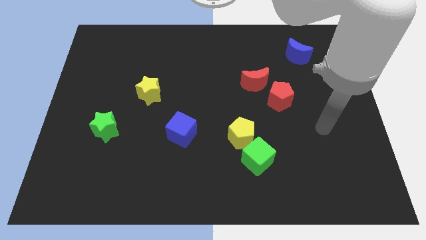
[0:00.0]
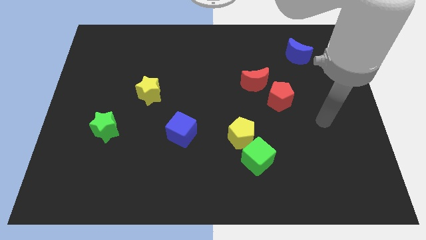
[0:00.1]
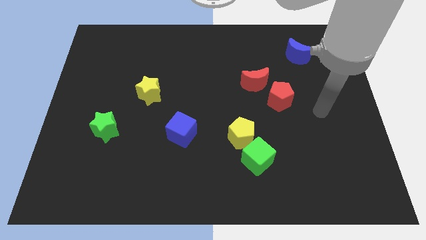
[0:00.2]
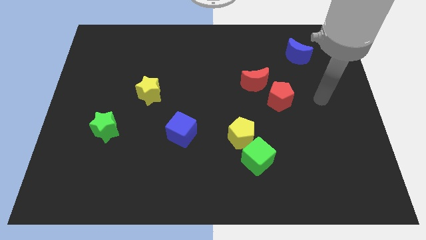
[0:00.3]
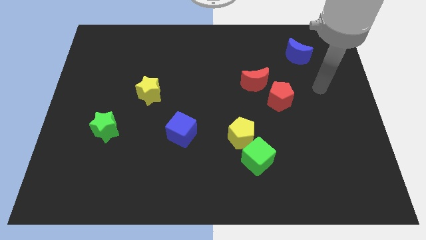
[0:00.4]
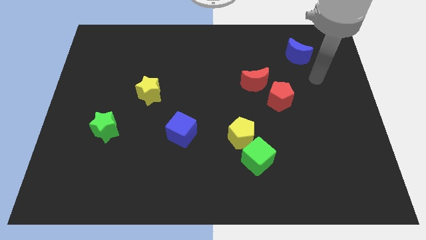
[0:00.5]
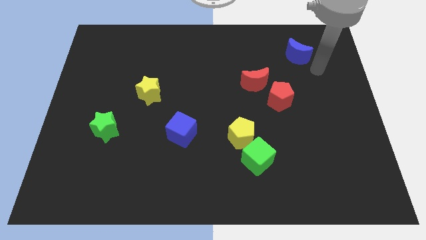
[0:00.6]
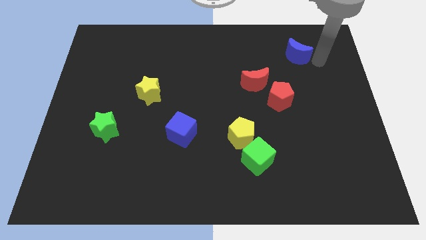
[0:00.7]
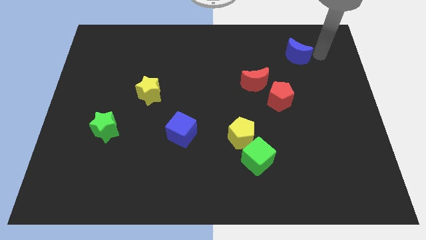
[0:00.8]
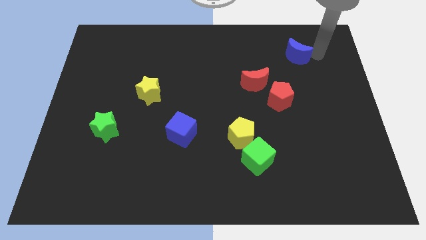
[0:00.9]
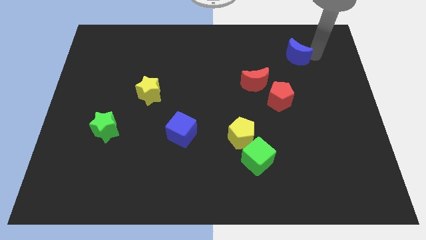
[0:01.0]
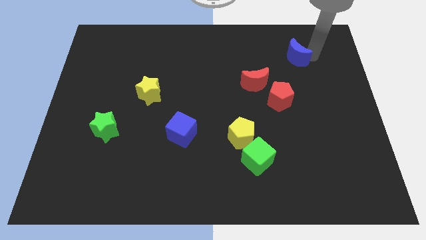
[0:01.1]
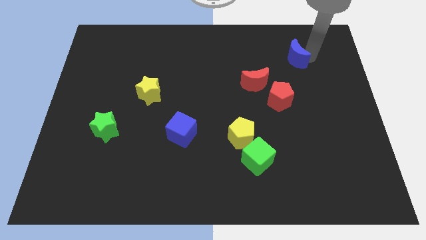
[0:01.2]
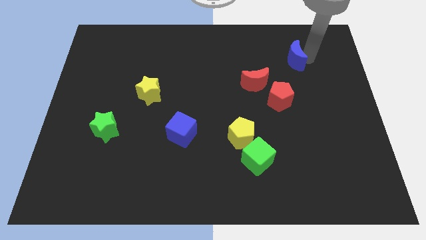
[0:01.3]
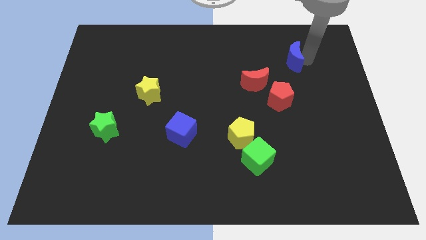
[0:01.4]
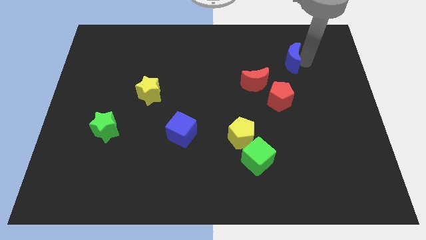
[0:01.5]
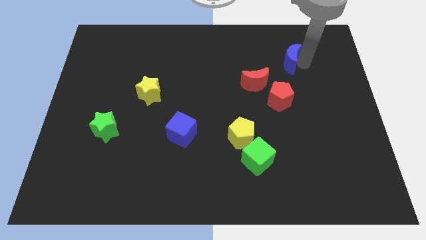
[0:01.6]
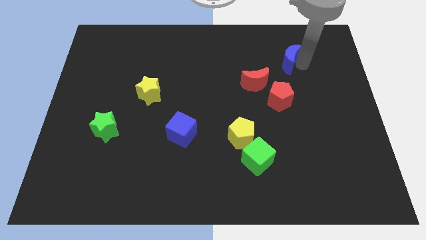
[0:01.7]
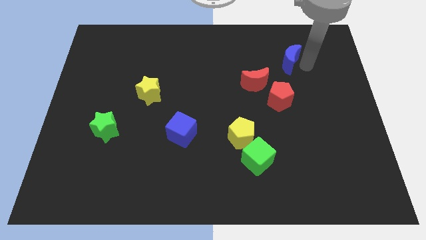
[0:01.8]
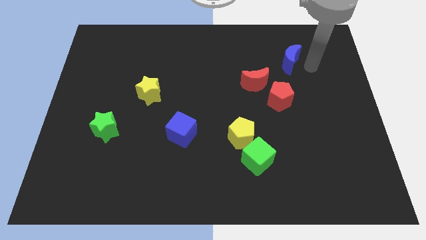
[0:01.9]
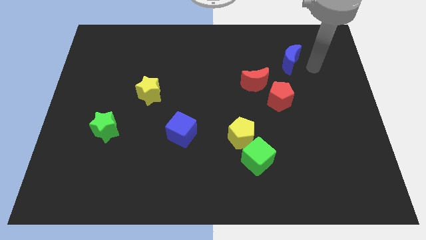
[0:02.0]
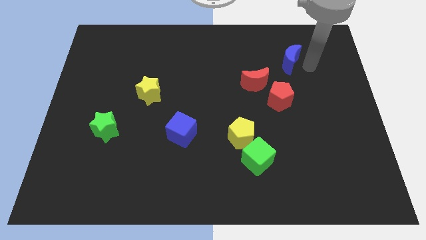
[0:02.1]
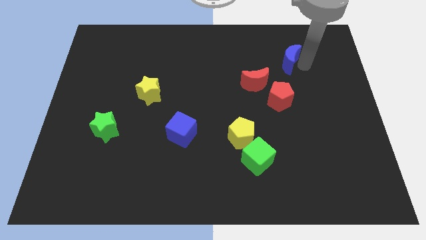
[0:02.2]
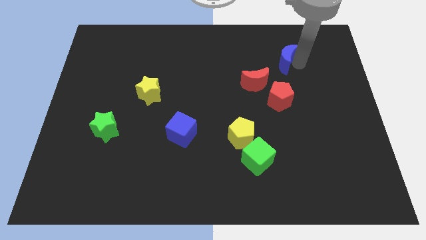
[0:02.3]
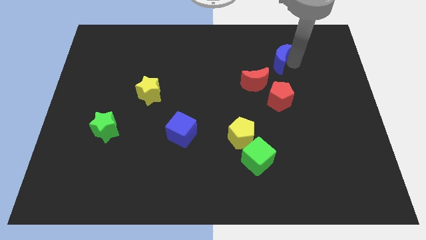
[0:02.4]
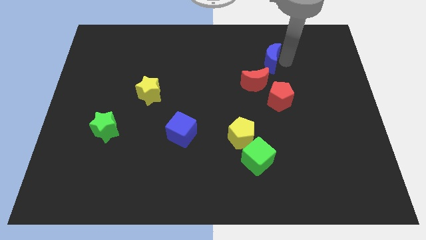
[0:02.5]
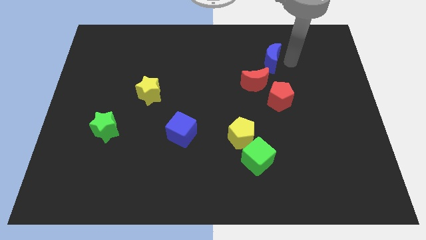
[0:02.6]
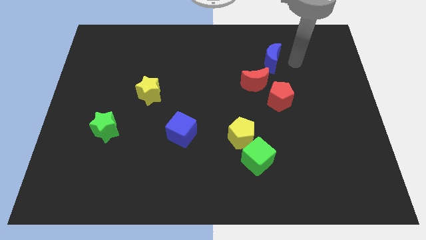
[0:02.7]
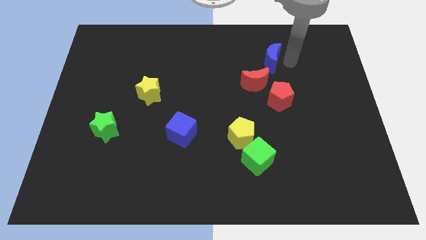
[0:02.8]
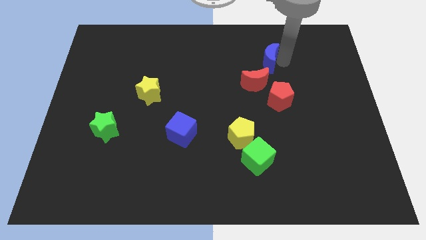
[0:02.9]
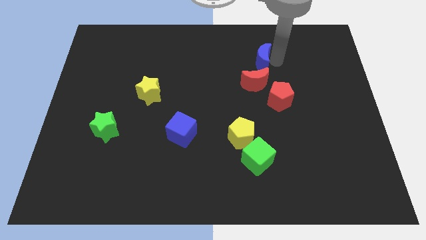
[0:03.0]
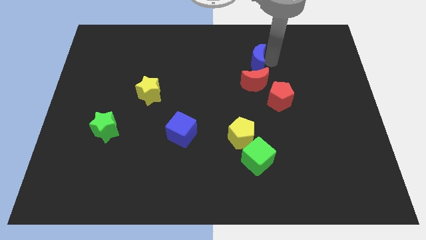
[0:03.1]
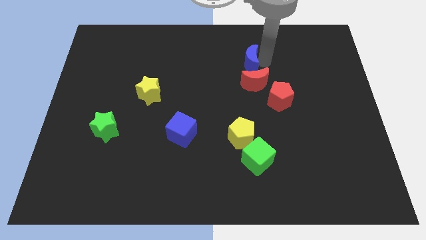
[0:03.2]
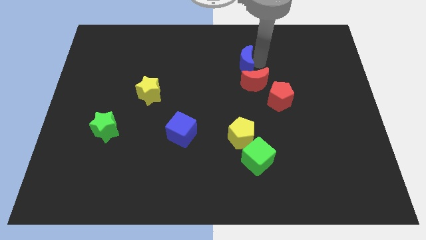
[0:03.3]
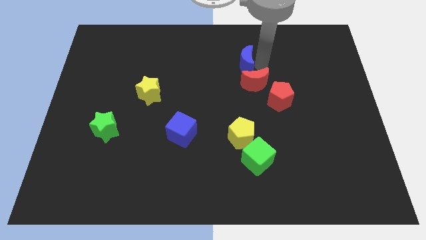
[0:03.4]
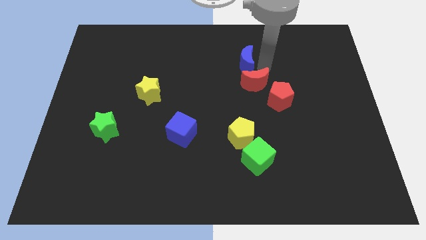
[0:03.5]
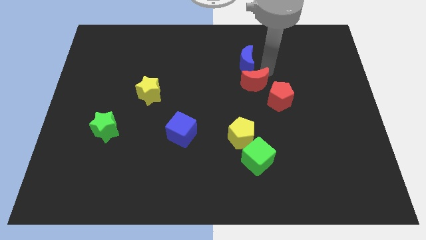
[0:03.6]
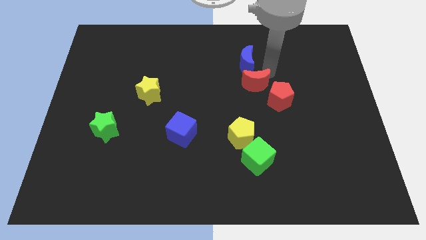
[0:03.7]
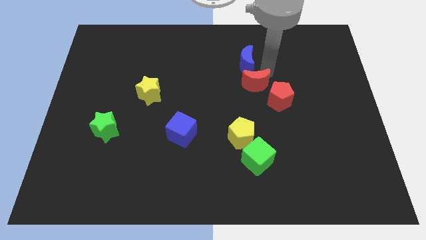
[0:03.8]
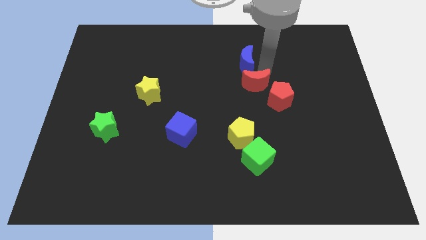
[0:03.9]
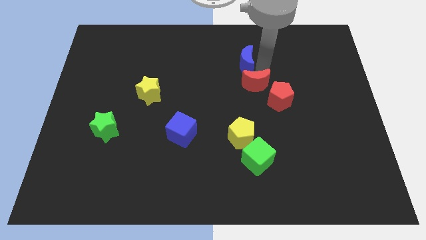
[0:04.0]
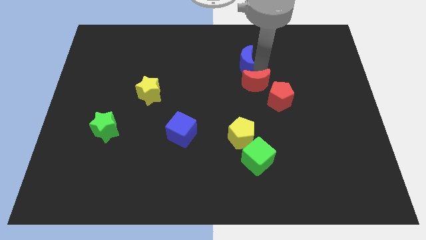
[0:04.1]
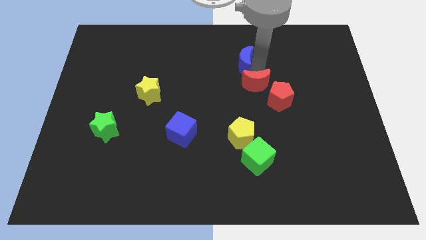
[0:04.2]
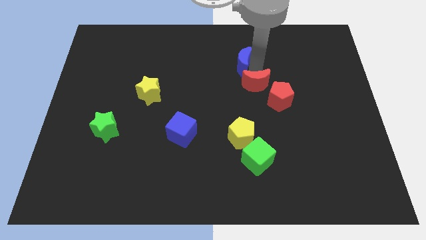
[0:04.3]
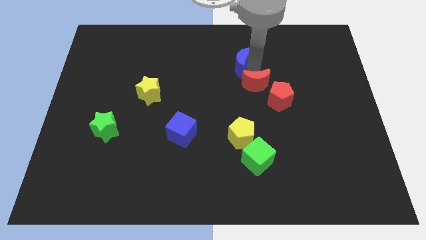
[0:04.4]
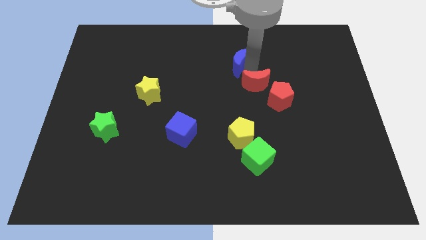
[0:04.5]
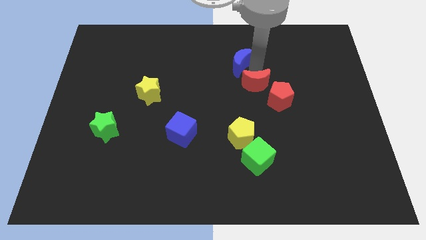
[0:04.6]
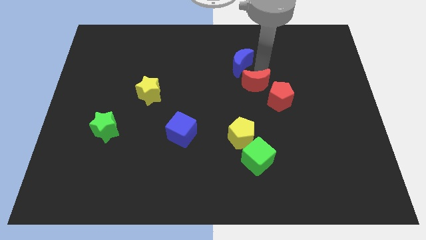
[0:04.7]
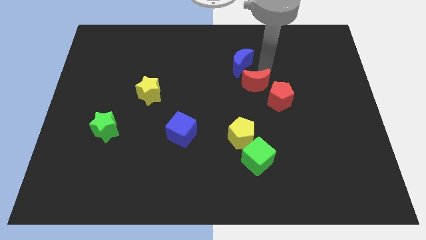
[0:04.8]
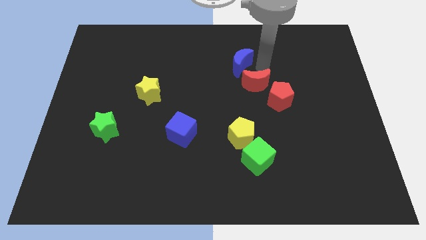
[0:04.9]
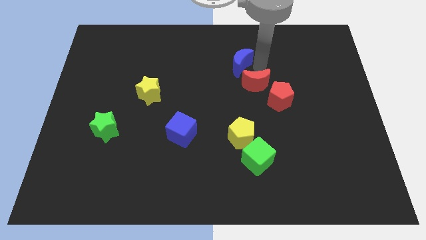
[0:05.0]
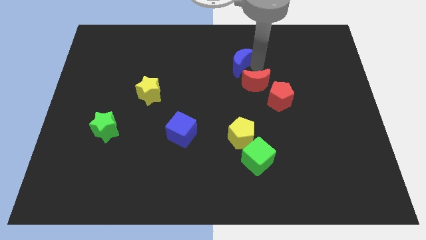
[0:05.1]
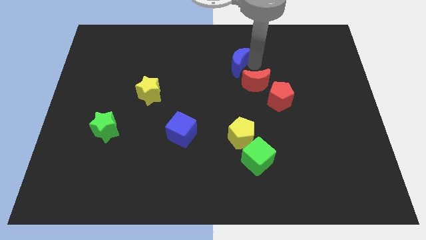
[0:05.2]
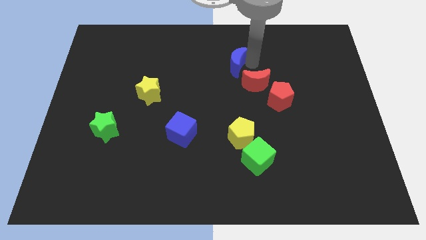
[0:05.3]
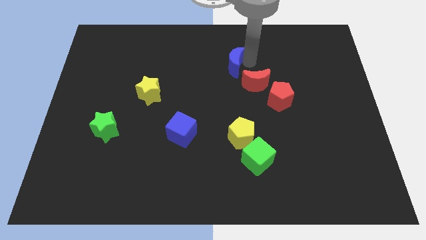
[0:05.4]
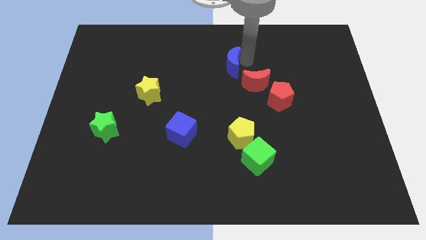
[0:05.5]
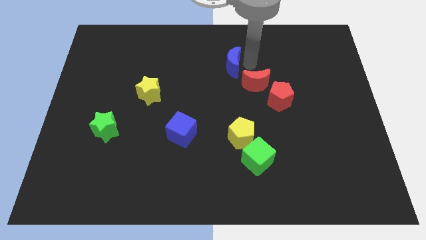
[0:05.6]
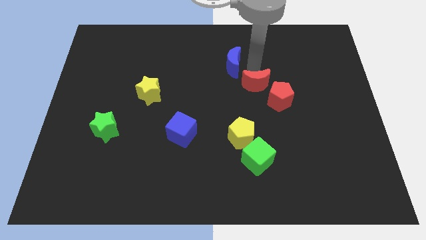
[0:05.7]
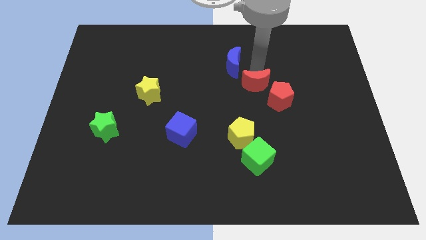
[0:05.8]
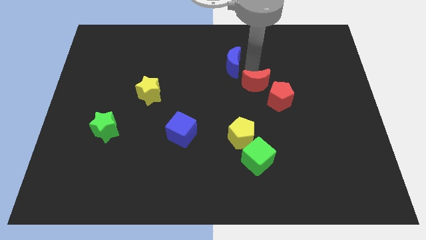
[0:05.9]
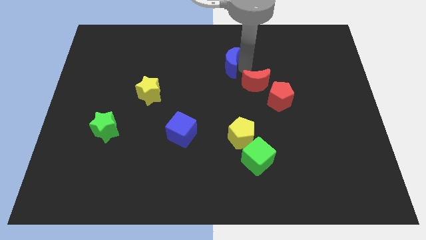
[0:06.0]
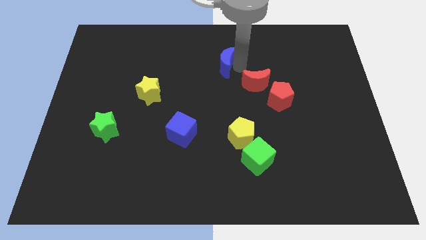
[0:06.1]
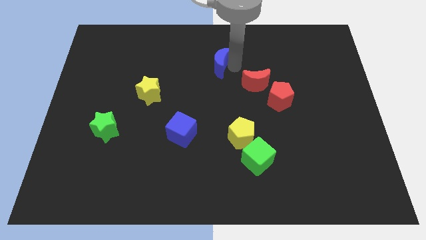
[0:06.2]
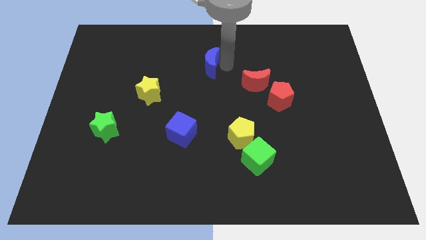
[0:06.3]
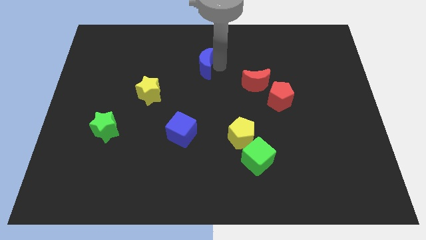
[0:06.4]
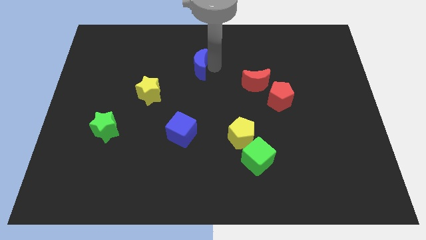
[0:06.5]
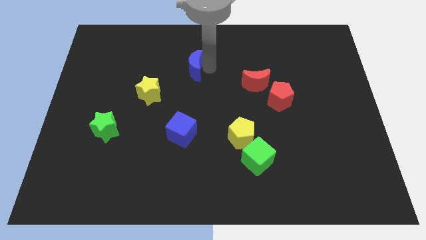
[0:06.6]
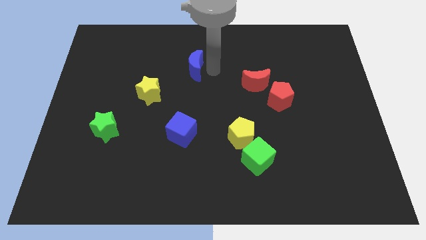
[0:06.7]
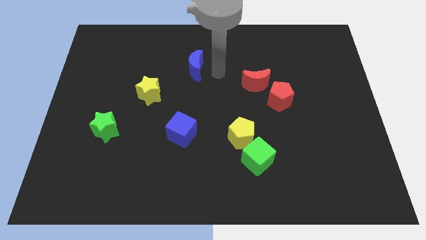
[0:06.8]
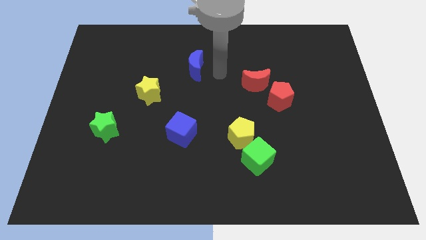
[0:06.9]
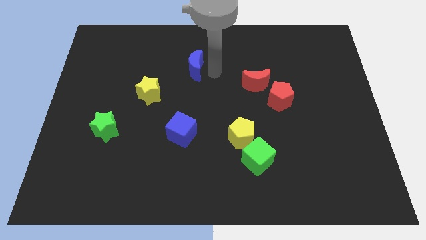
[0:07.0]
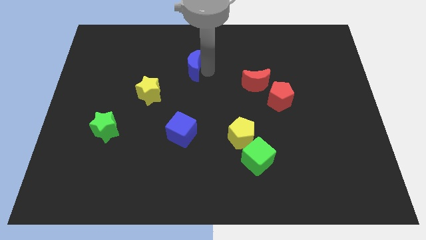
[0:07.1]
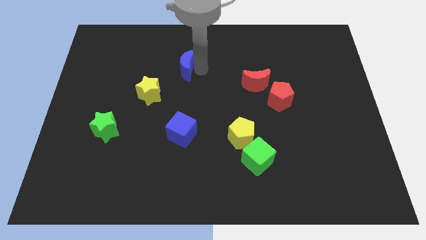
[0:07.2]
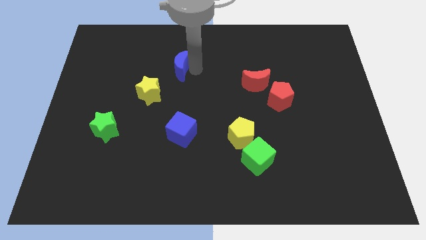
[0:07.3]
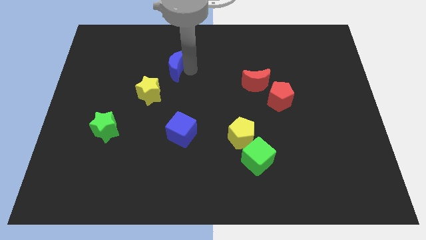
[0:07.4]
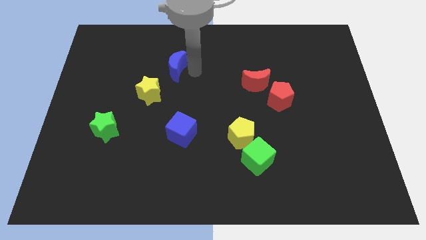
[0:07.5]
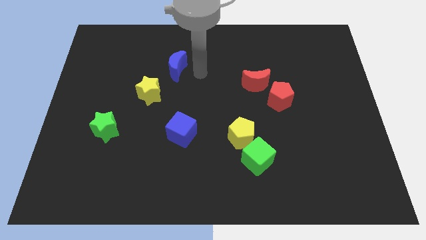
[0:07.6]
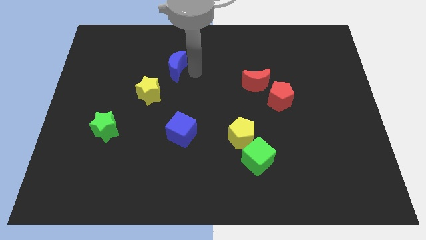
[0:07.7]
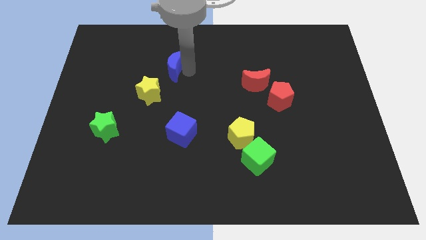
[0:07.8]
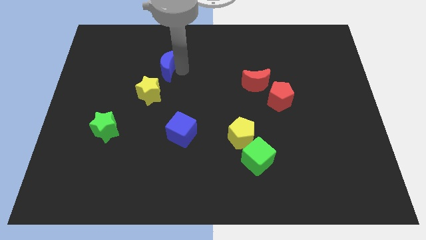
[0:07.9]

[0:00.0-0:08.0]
slide the blue moon to the top side of the yellow star
